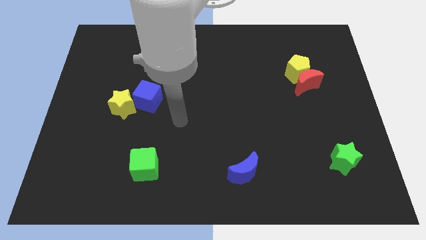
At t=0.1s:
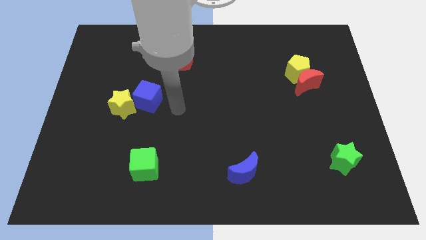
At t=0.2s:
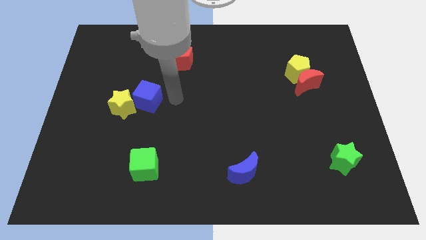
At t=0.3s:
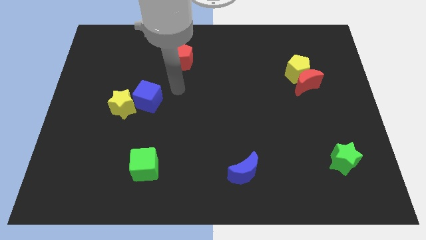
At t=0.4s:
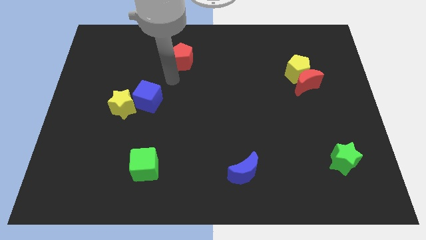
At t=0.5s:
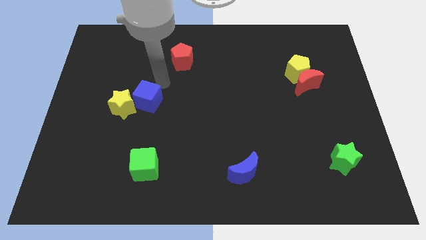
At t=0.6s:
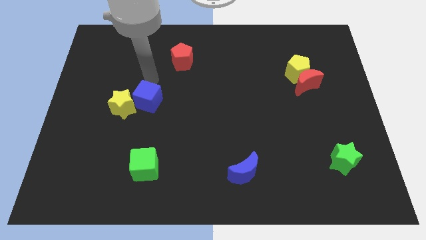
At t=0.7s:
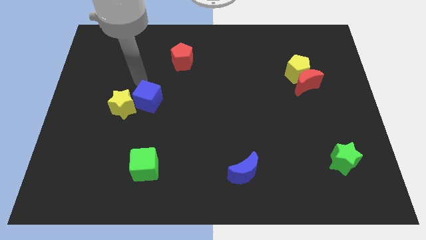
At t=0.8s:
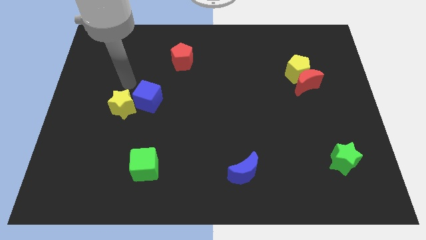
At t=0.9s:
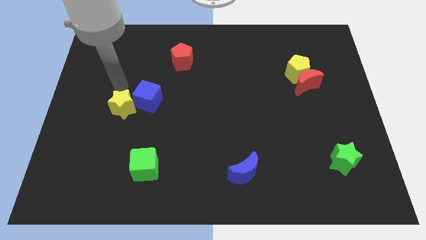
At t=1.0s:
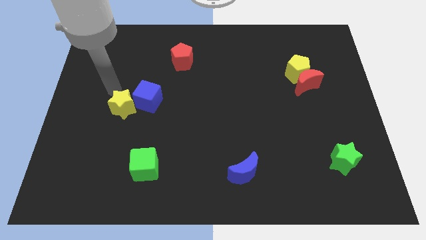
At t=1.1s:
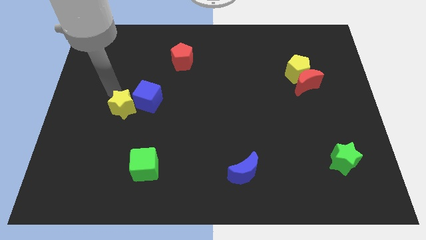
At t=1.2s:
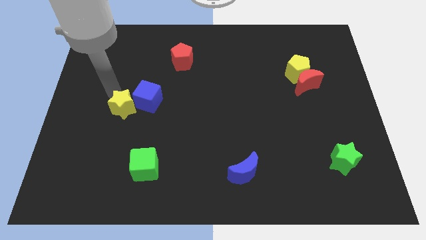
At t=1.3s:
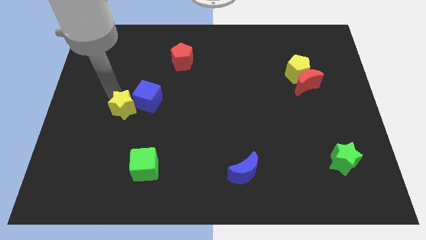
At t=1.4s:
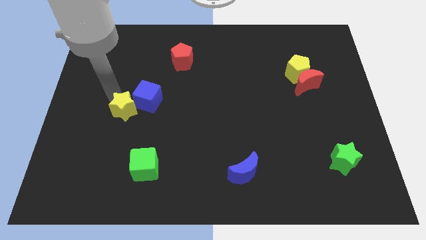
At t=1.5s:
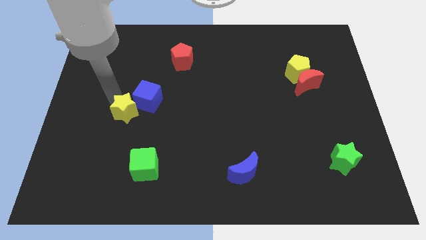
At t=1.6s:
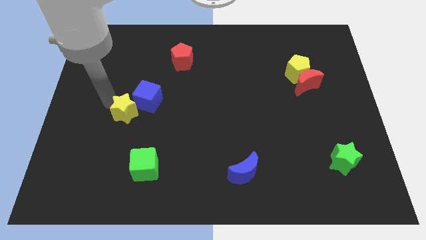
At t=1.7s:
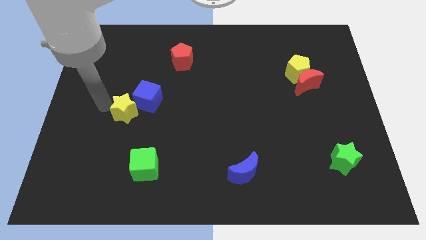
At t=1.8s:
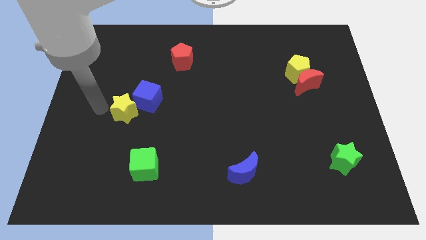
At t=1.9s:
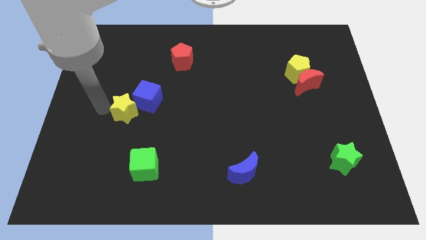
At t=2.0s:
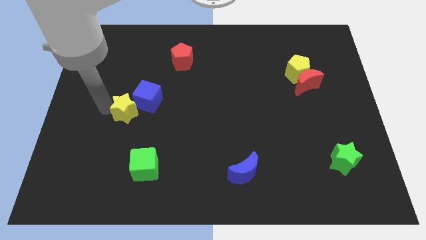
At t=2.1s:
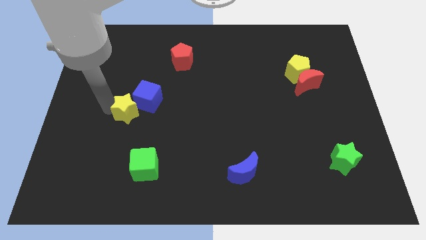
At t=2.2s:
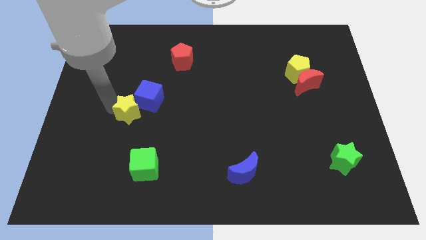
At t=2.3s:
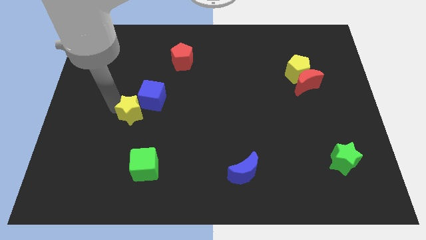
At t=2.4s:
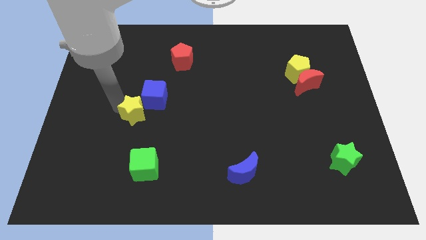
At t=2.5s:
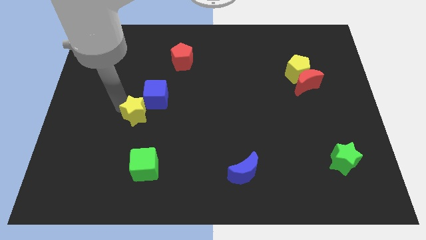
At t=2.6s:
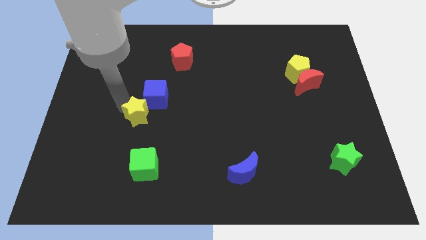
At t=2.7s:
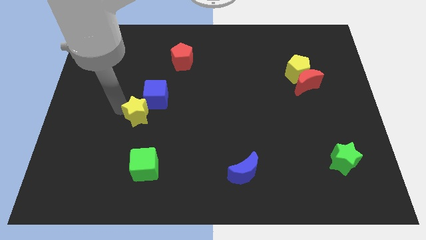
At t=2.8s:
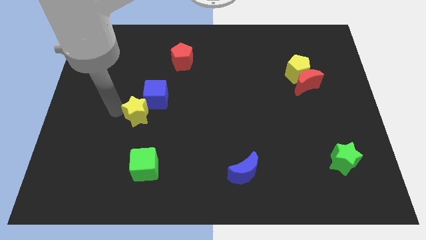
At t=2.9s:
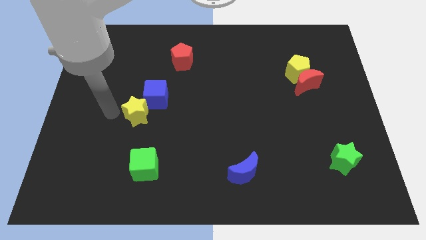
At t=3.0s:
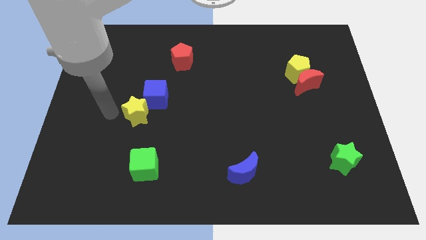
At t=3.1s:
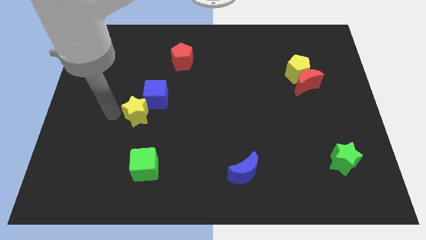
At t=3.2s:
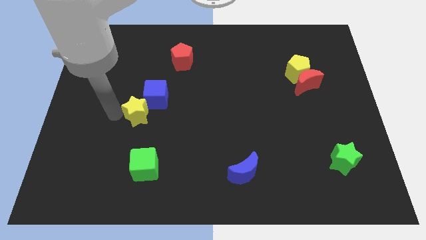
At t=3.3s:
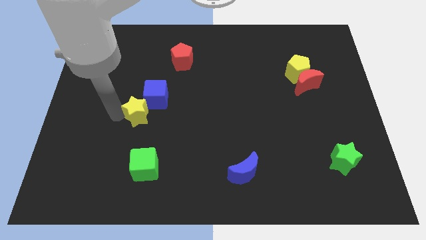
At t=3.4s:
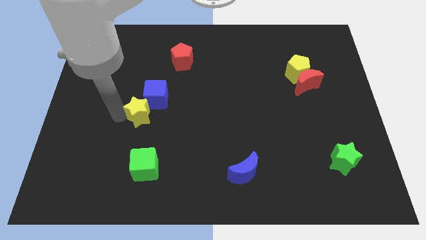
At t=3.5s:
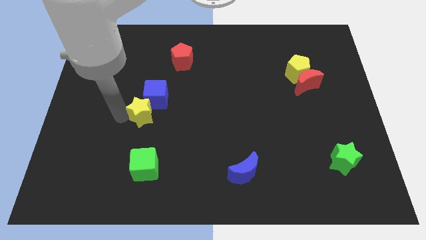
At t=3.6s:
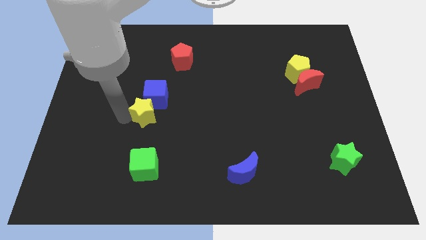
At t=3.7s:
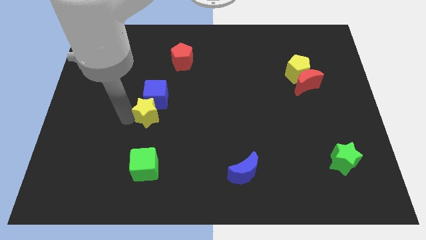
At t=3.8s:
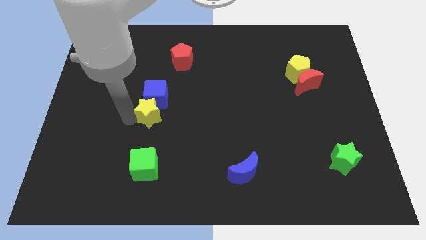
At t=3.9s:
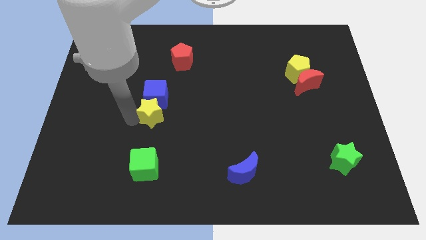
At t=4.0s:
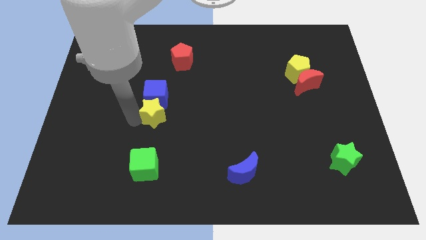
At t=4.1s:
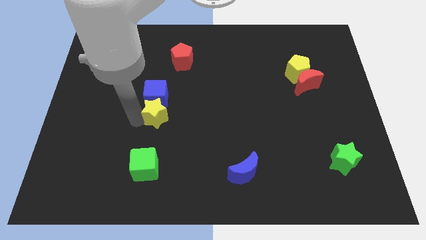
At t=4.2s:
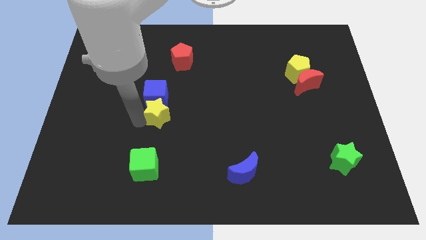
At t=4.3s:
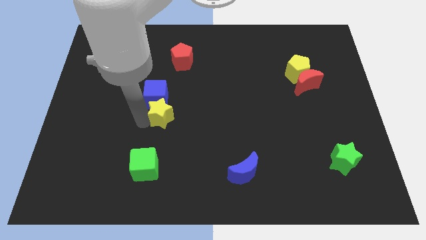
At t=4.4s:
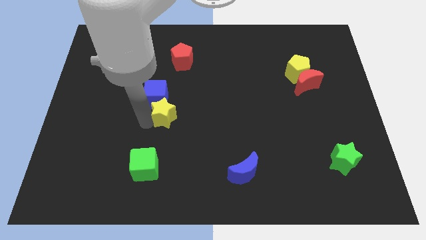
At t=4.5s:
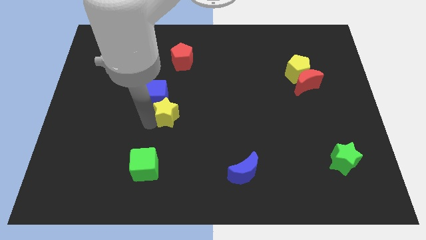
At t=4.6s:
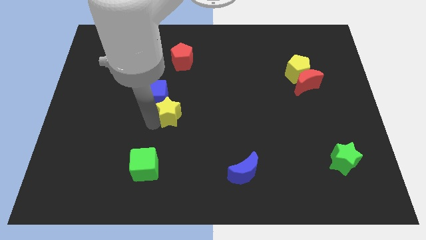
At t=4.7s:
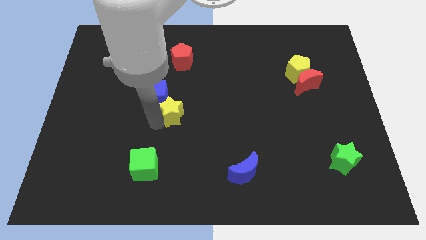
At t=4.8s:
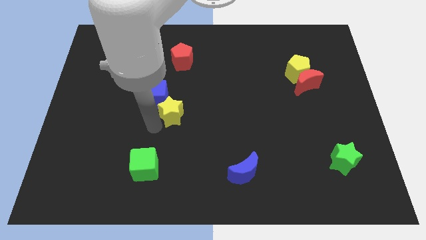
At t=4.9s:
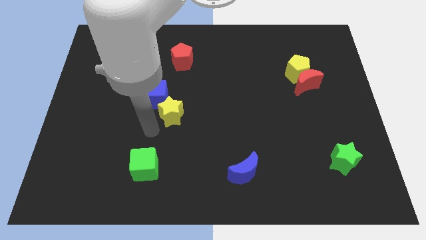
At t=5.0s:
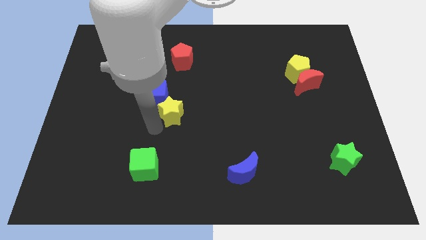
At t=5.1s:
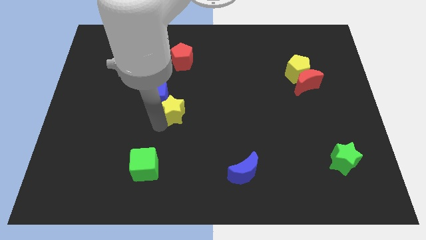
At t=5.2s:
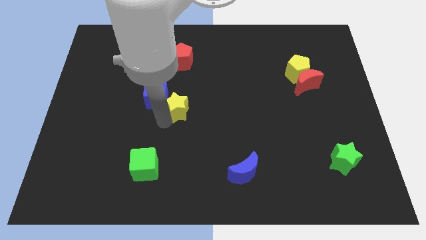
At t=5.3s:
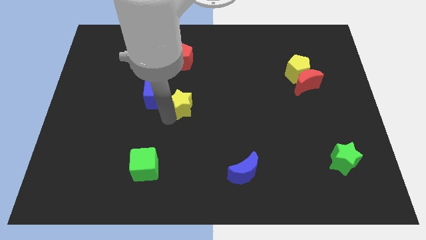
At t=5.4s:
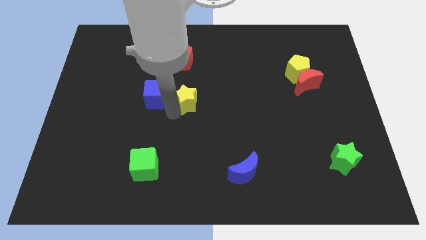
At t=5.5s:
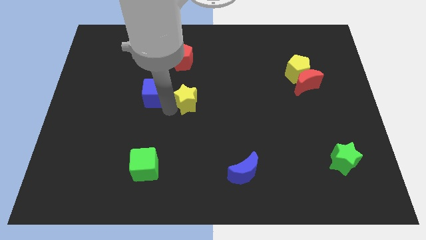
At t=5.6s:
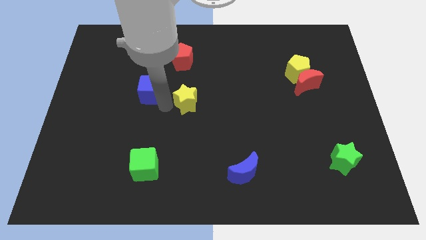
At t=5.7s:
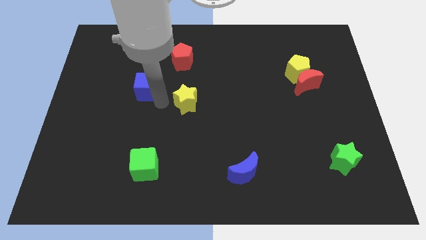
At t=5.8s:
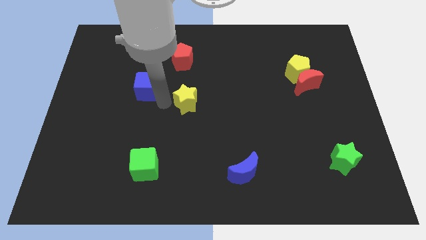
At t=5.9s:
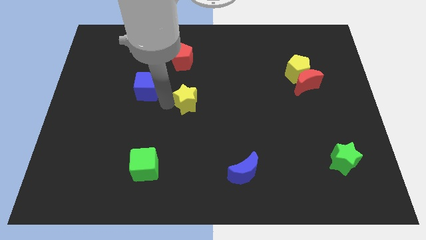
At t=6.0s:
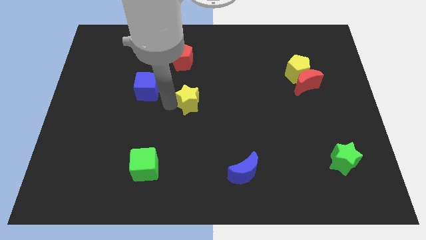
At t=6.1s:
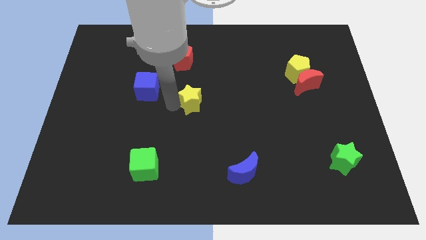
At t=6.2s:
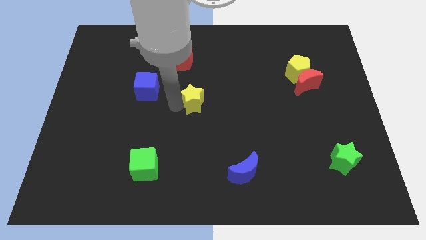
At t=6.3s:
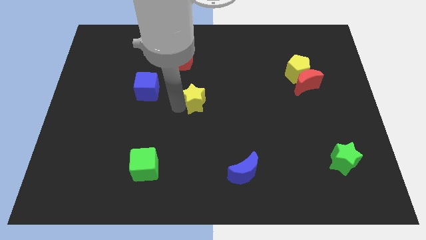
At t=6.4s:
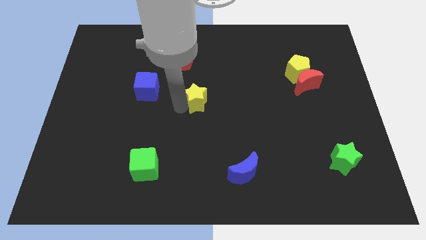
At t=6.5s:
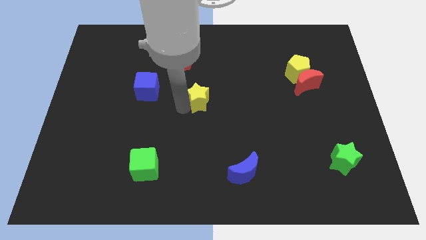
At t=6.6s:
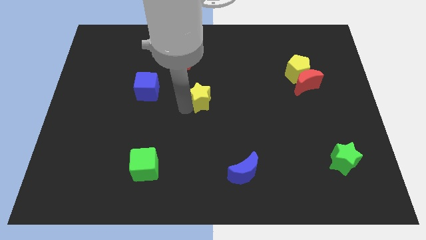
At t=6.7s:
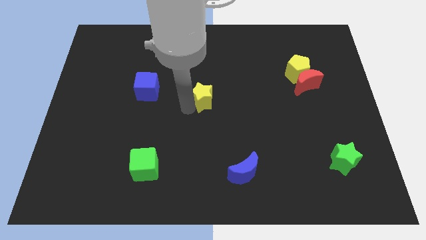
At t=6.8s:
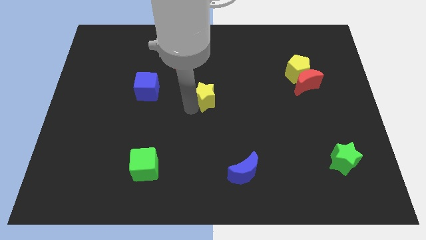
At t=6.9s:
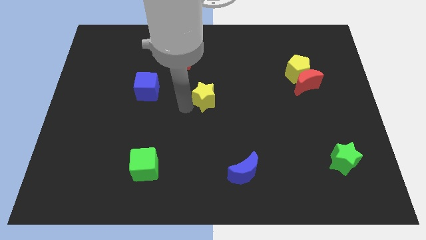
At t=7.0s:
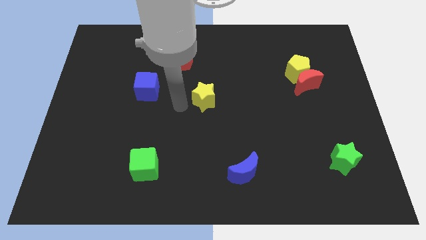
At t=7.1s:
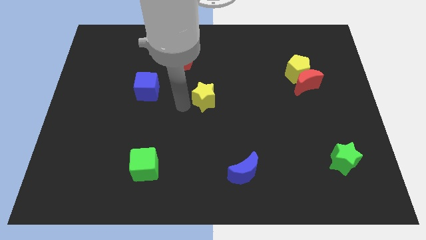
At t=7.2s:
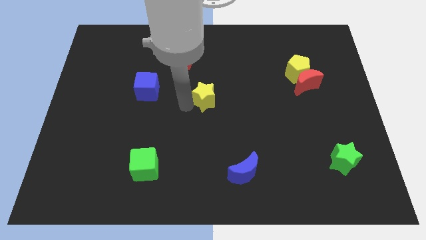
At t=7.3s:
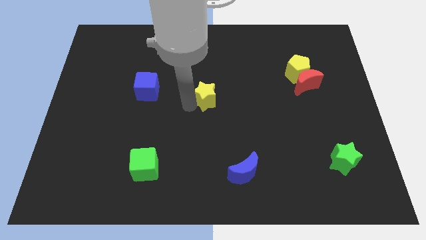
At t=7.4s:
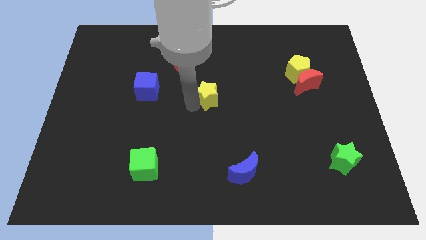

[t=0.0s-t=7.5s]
slide the yellow star right

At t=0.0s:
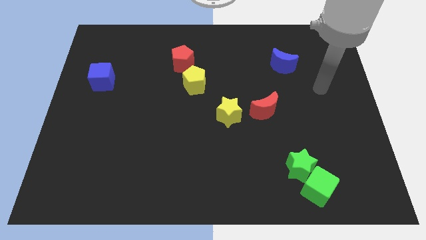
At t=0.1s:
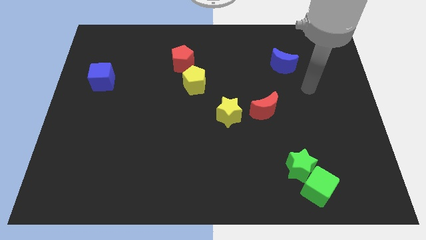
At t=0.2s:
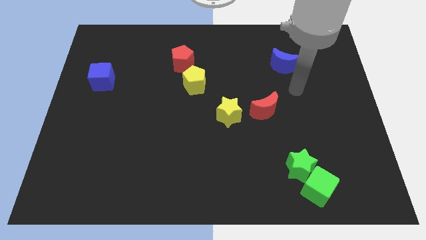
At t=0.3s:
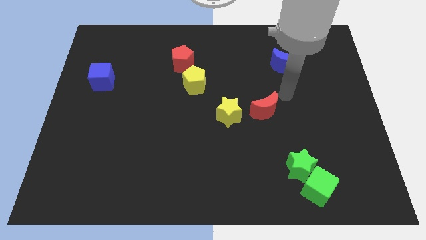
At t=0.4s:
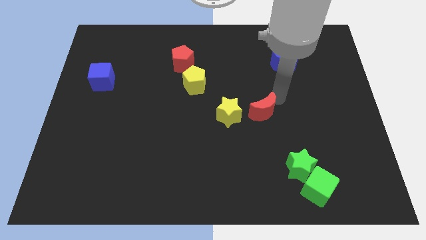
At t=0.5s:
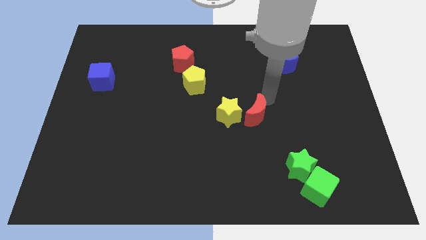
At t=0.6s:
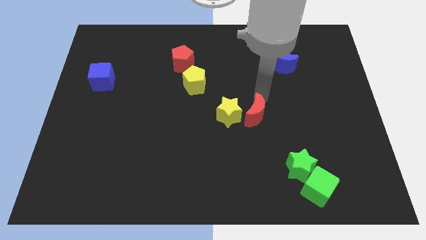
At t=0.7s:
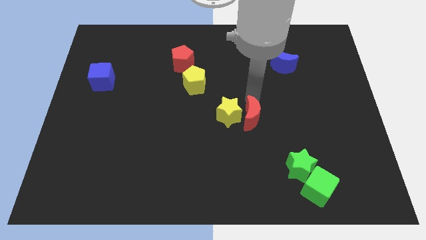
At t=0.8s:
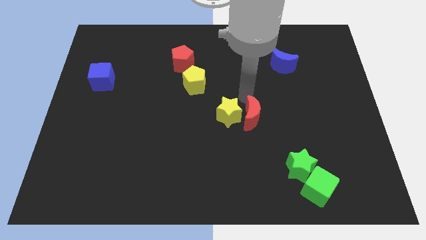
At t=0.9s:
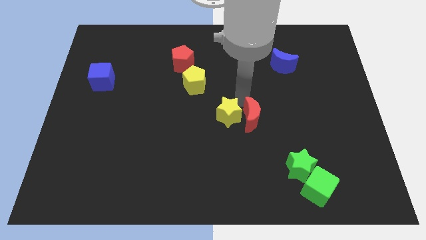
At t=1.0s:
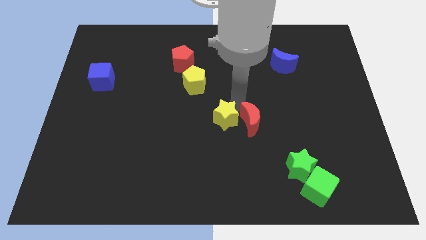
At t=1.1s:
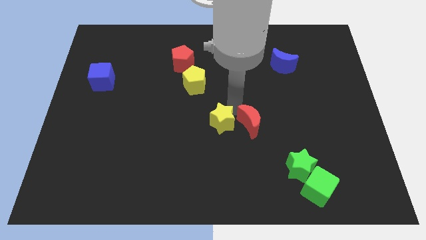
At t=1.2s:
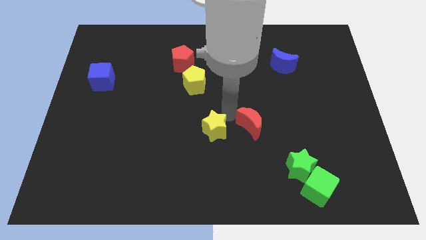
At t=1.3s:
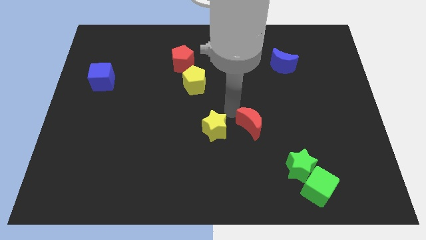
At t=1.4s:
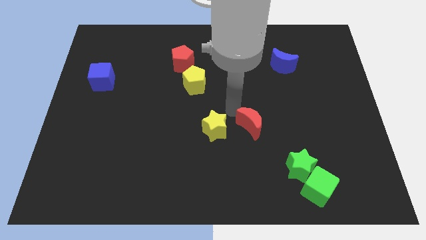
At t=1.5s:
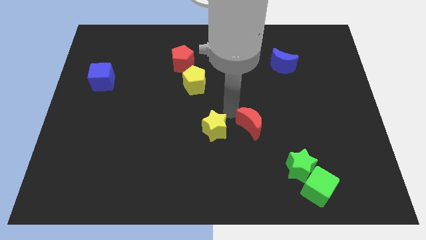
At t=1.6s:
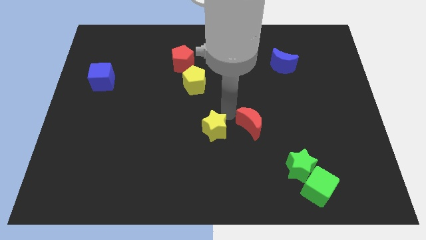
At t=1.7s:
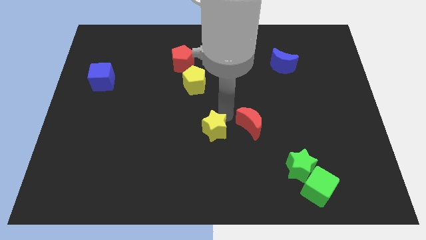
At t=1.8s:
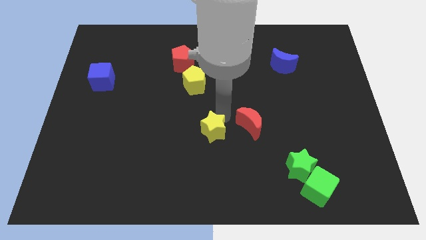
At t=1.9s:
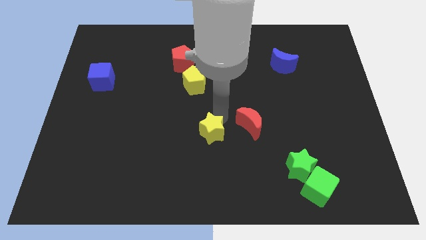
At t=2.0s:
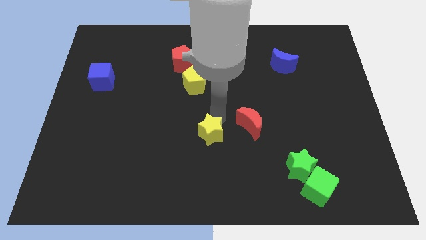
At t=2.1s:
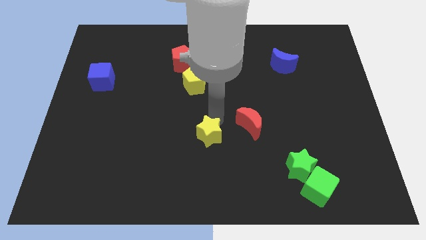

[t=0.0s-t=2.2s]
slightly move the yellow star diagonally down and to the left
